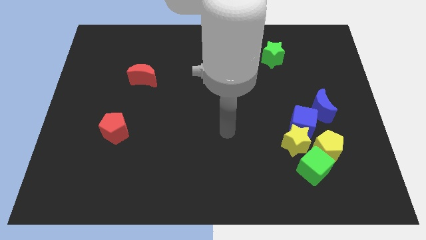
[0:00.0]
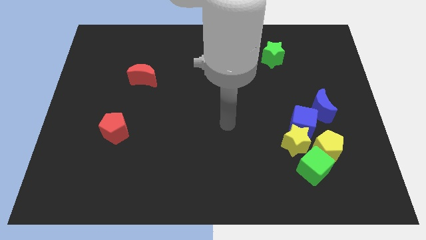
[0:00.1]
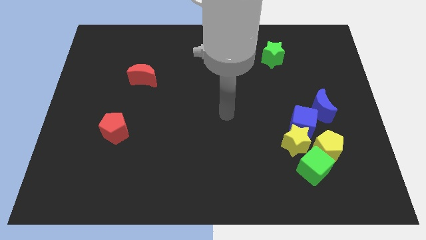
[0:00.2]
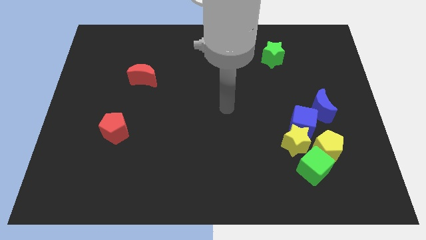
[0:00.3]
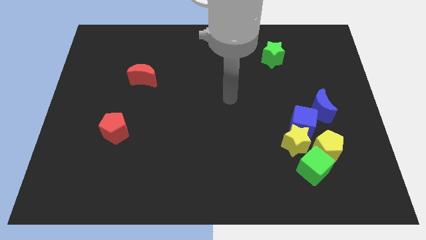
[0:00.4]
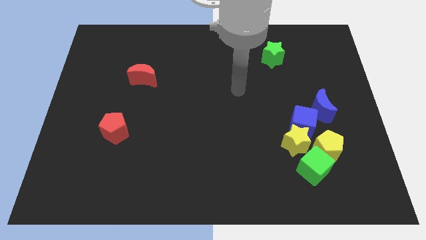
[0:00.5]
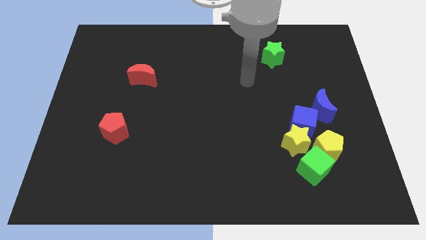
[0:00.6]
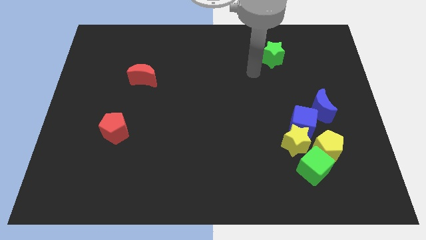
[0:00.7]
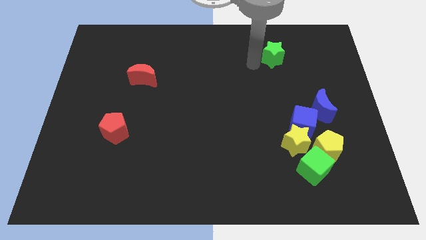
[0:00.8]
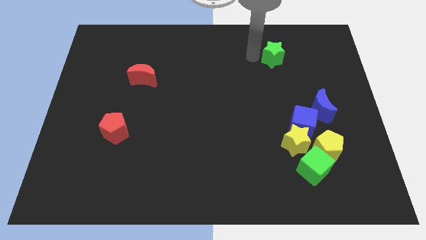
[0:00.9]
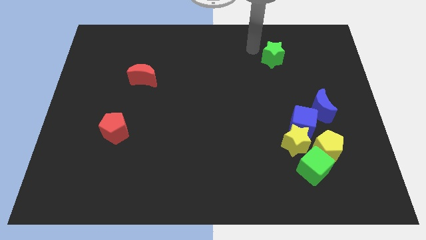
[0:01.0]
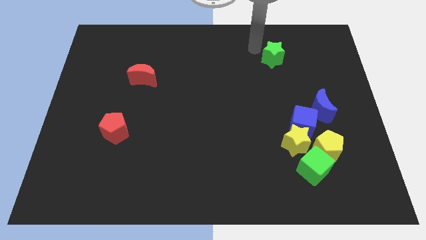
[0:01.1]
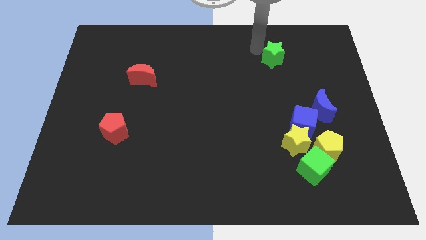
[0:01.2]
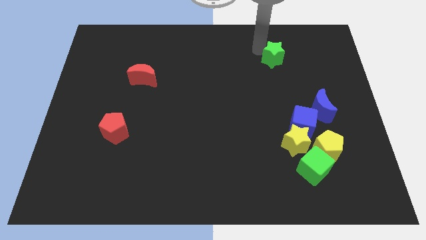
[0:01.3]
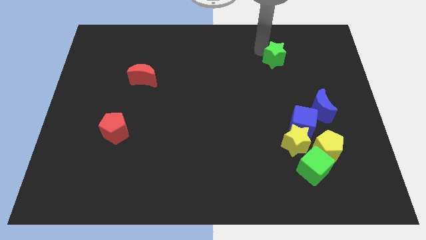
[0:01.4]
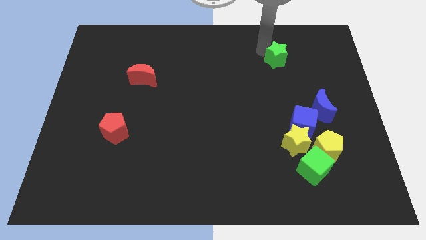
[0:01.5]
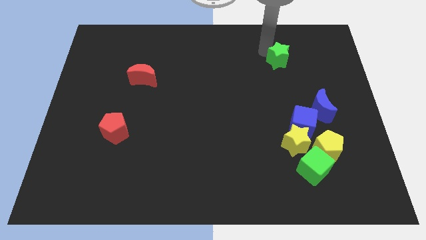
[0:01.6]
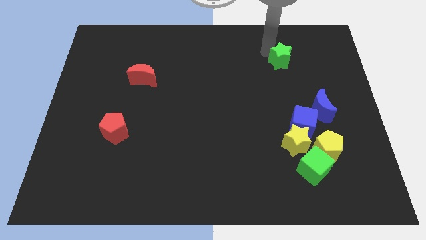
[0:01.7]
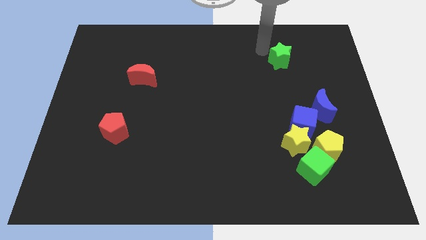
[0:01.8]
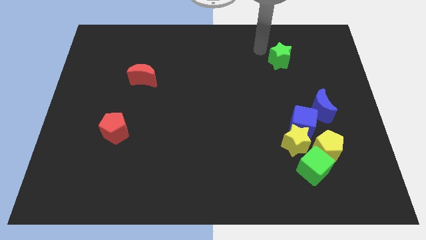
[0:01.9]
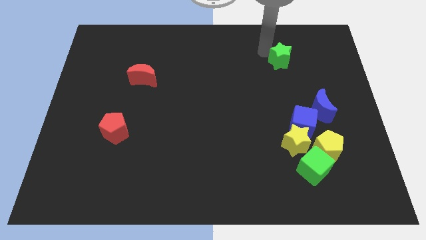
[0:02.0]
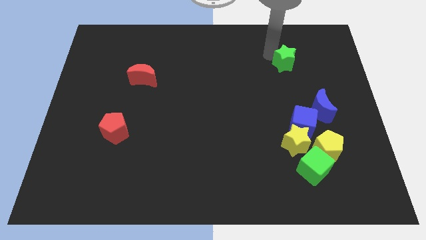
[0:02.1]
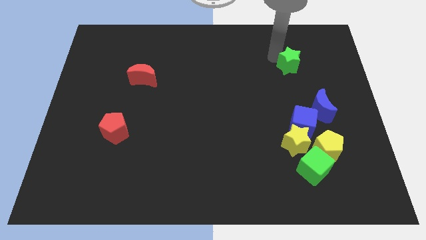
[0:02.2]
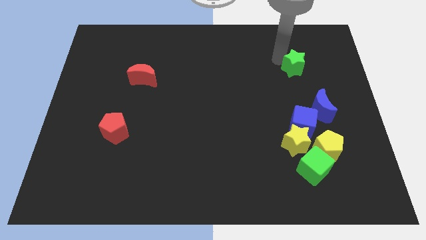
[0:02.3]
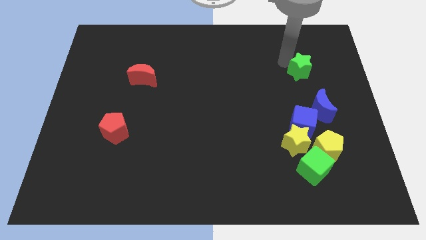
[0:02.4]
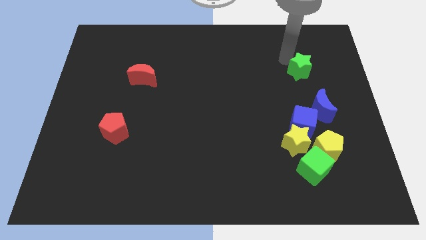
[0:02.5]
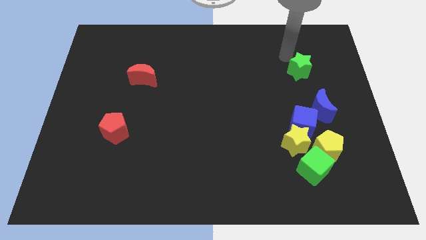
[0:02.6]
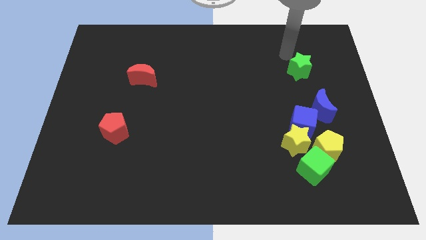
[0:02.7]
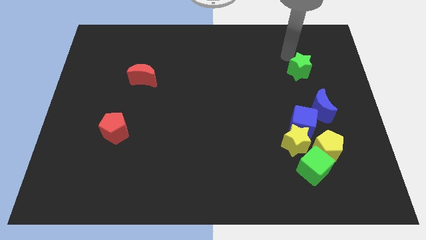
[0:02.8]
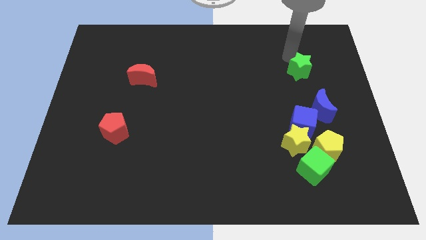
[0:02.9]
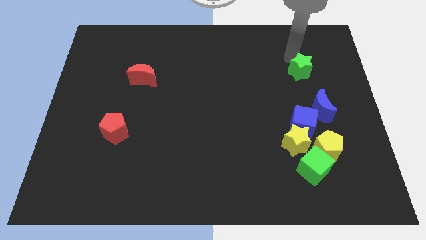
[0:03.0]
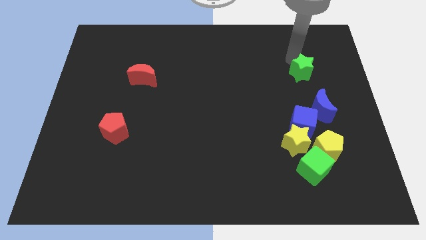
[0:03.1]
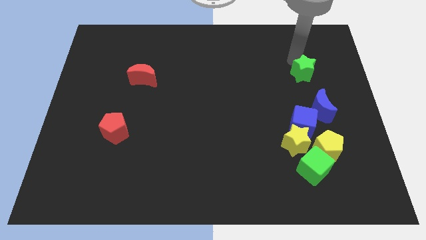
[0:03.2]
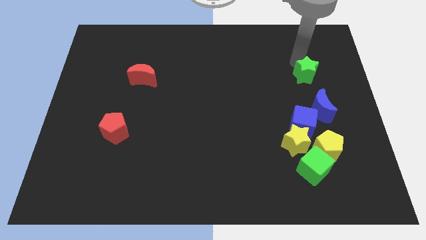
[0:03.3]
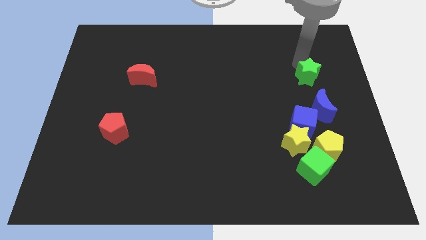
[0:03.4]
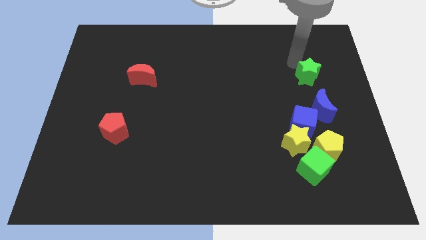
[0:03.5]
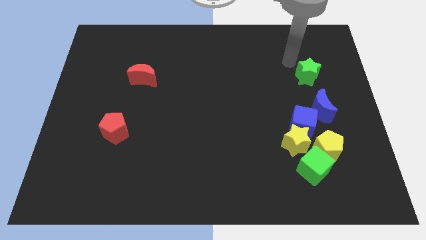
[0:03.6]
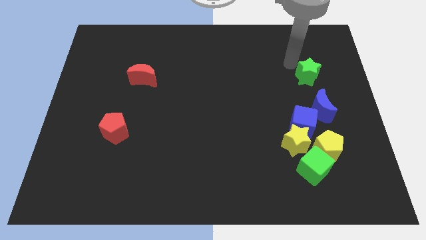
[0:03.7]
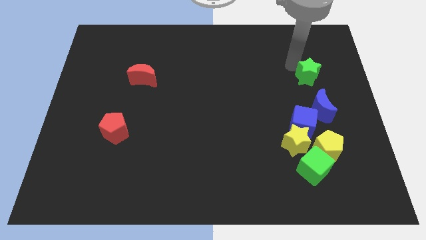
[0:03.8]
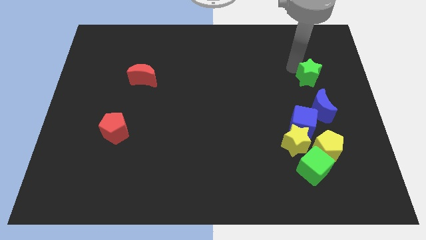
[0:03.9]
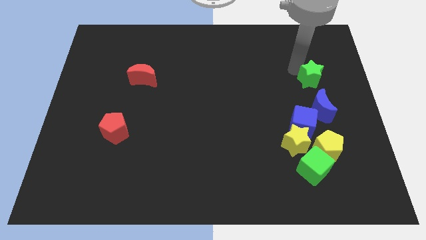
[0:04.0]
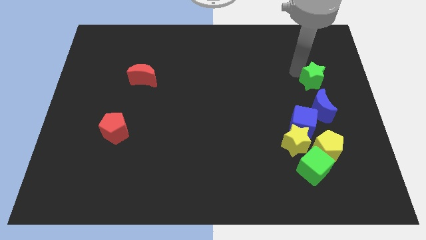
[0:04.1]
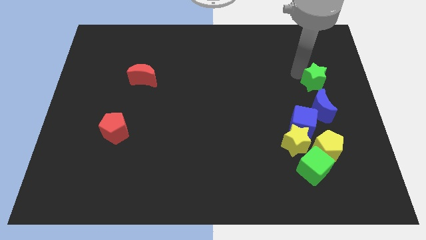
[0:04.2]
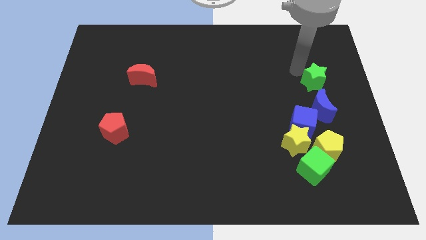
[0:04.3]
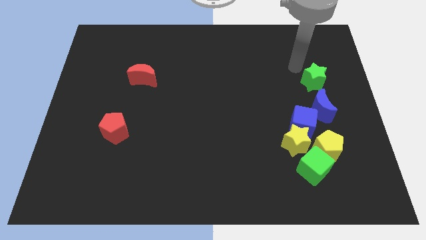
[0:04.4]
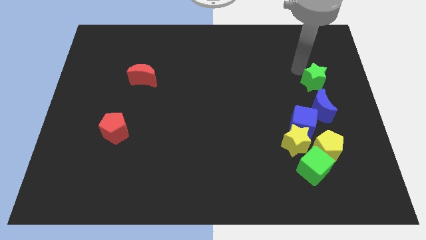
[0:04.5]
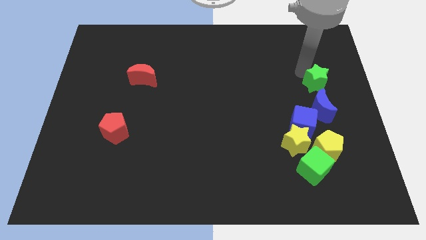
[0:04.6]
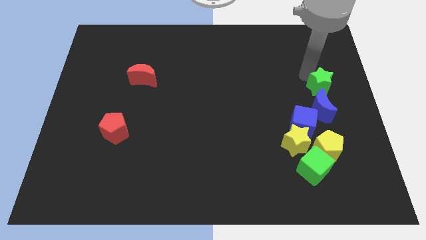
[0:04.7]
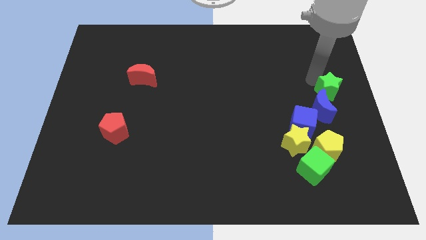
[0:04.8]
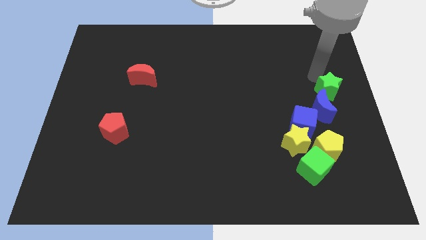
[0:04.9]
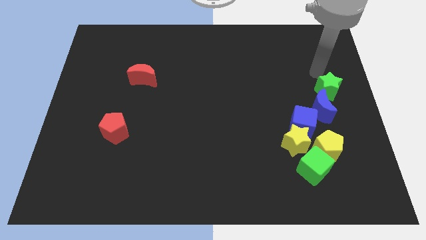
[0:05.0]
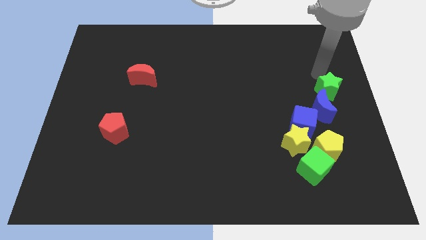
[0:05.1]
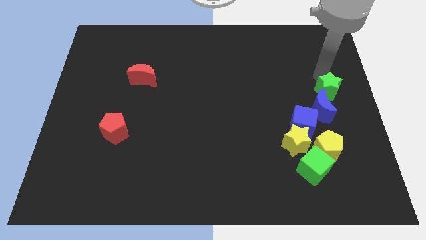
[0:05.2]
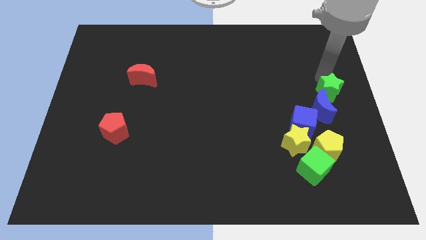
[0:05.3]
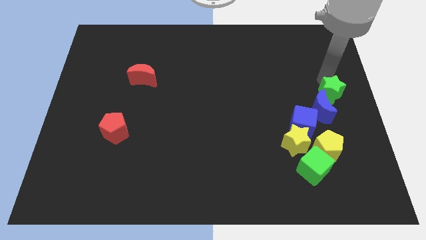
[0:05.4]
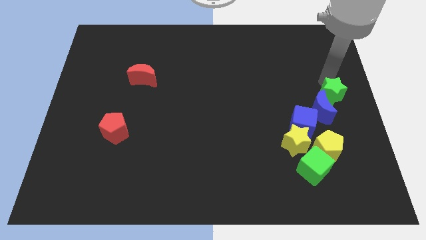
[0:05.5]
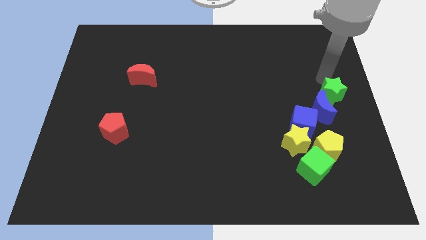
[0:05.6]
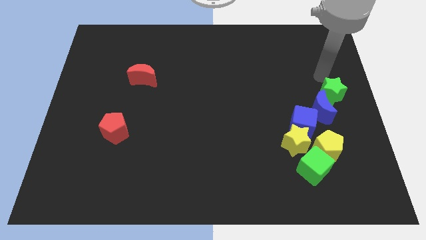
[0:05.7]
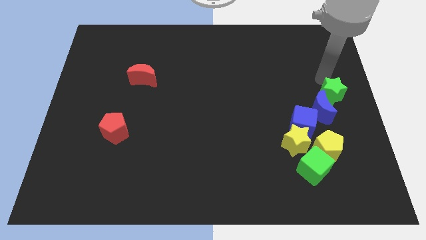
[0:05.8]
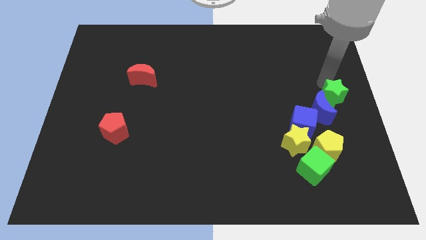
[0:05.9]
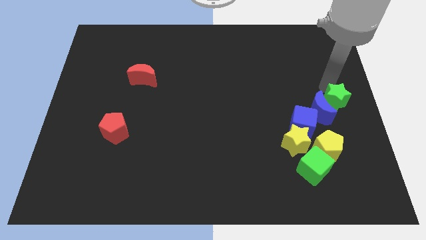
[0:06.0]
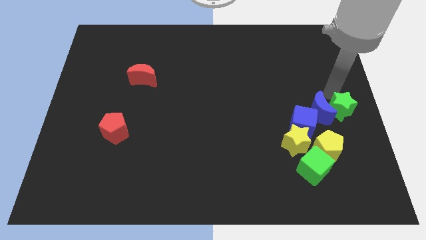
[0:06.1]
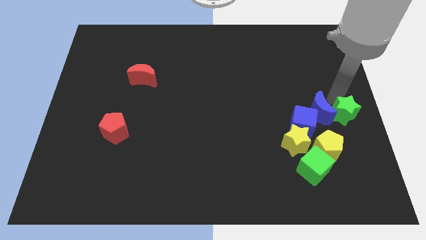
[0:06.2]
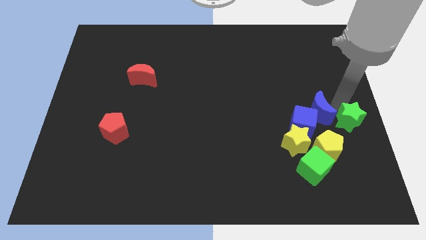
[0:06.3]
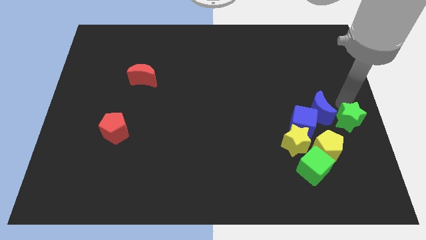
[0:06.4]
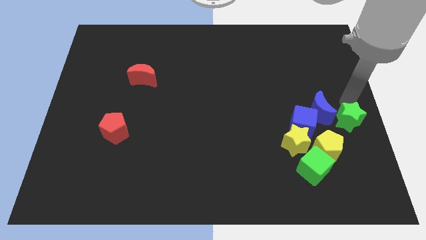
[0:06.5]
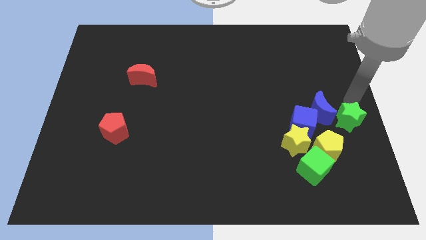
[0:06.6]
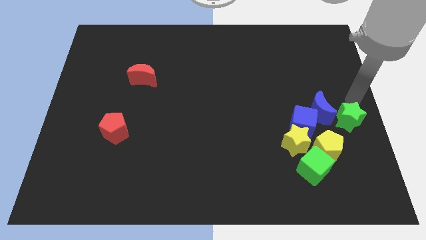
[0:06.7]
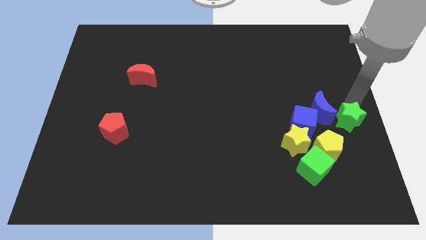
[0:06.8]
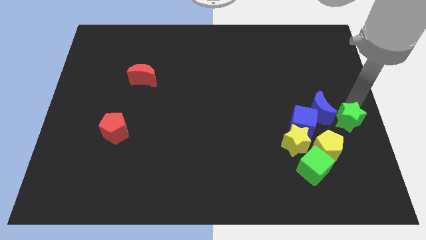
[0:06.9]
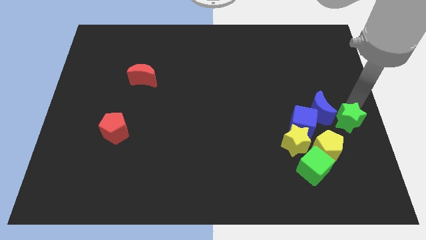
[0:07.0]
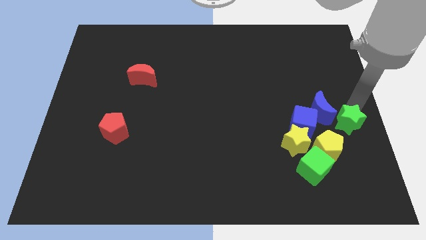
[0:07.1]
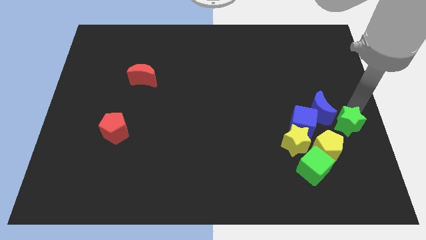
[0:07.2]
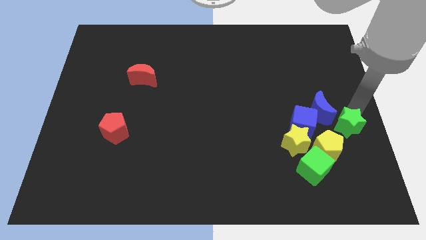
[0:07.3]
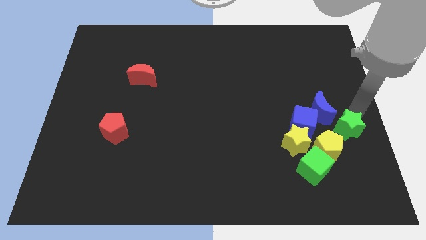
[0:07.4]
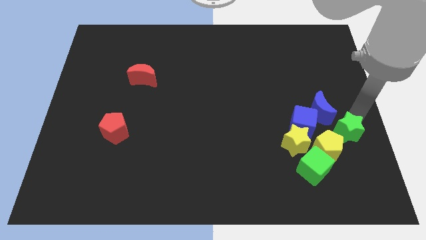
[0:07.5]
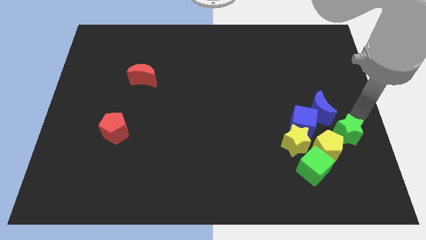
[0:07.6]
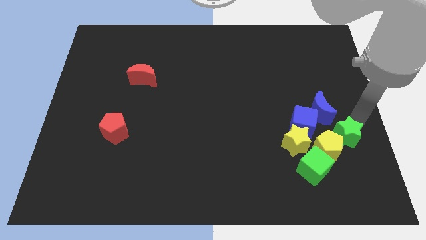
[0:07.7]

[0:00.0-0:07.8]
push the green star close to the yellow pentagon

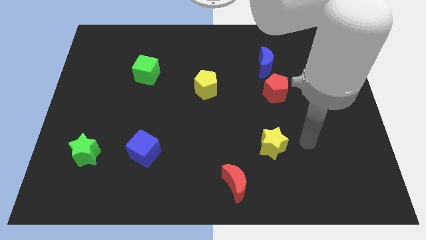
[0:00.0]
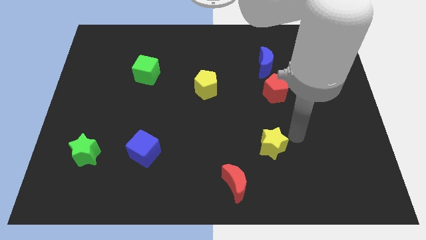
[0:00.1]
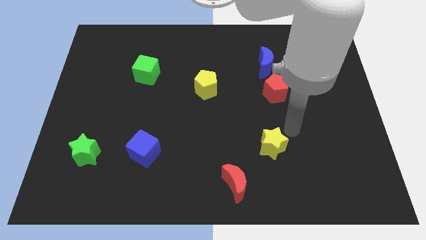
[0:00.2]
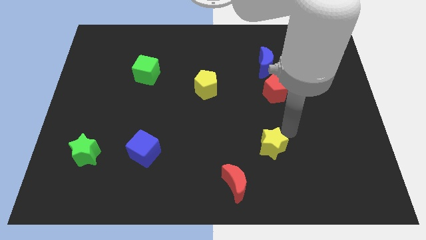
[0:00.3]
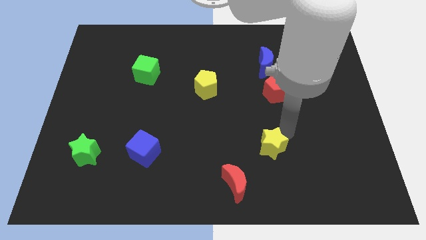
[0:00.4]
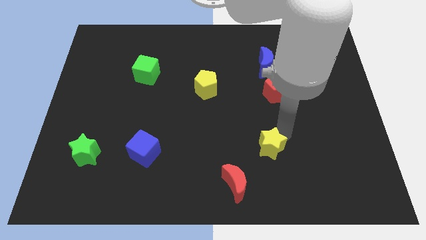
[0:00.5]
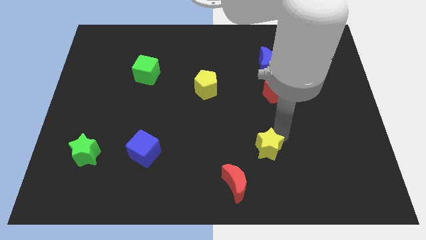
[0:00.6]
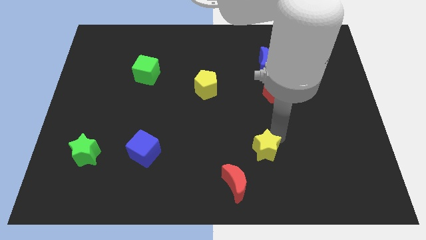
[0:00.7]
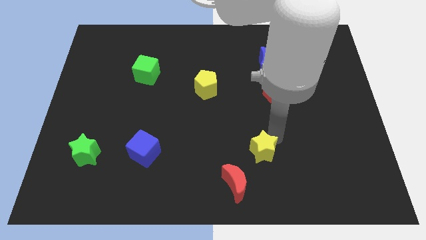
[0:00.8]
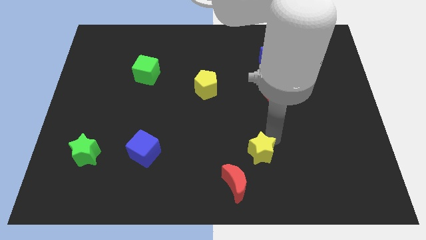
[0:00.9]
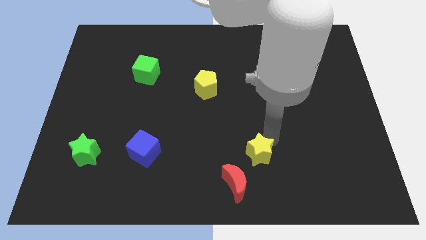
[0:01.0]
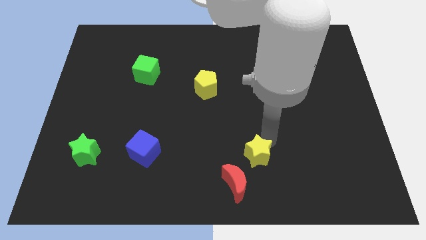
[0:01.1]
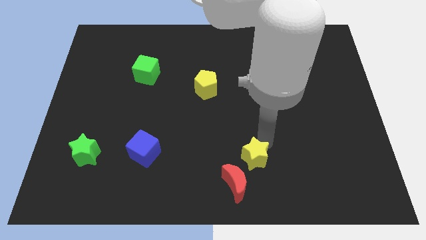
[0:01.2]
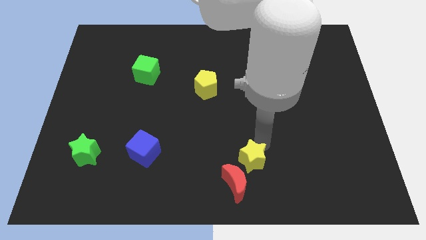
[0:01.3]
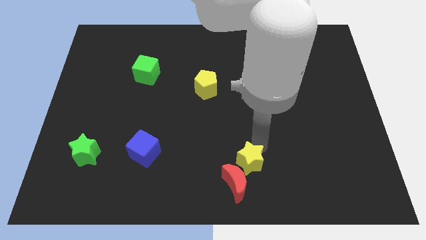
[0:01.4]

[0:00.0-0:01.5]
slide the yellow star towards the red moon
